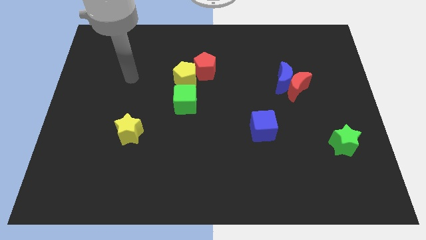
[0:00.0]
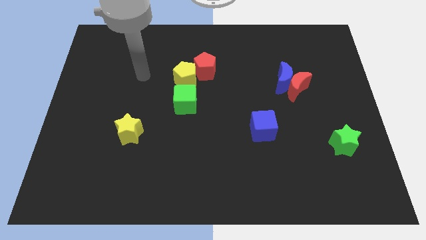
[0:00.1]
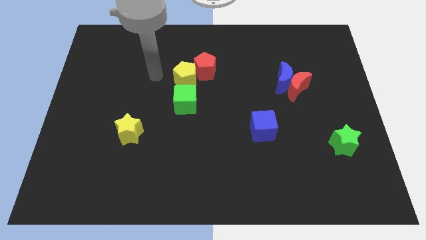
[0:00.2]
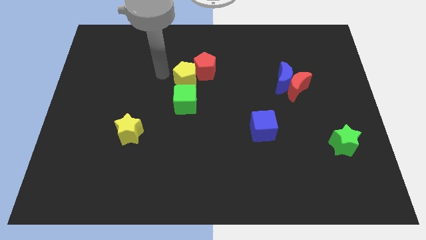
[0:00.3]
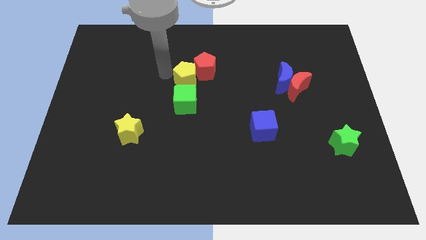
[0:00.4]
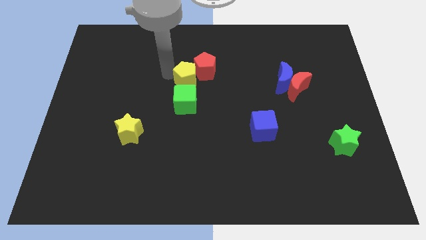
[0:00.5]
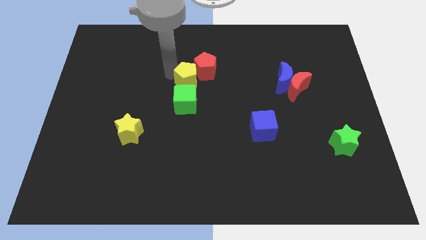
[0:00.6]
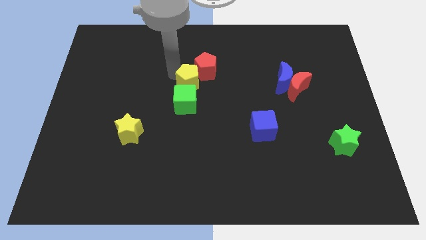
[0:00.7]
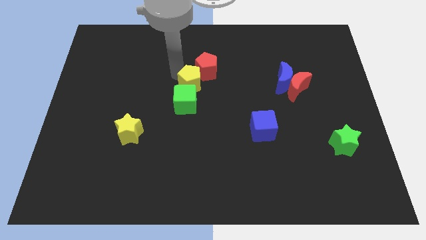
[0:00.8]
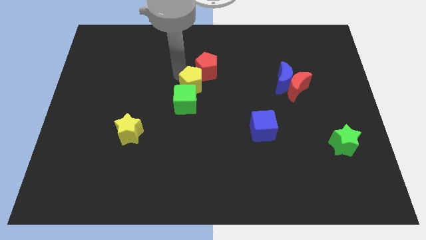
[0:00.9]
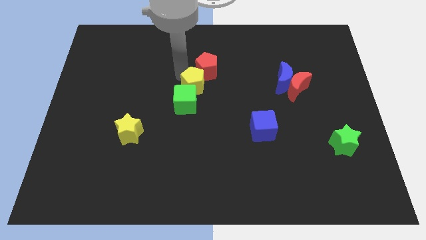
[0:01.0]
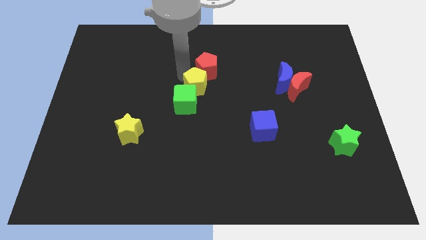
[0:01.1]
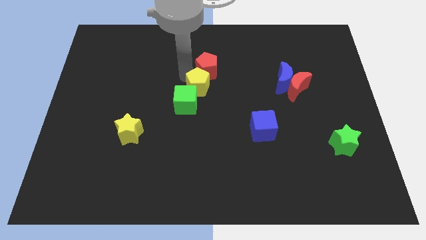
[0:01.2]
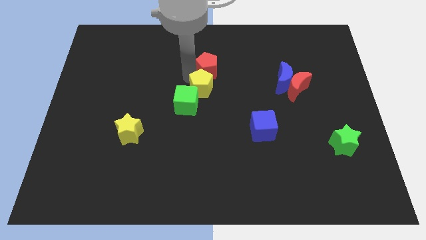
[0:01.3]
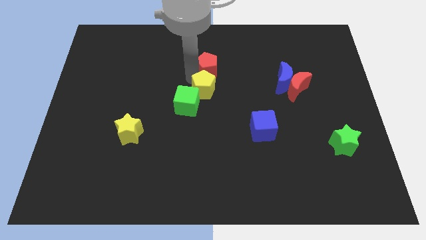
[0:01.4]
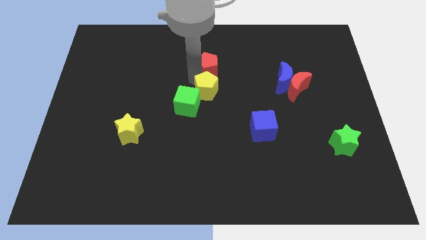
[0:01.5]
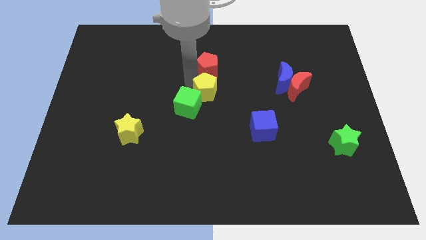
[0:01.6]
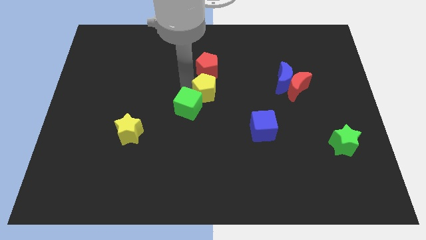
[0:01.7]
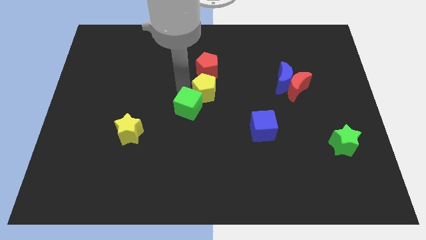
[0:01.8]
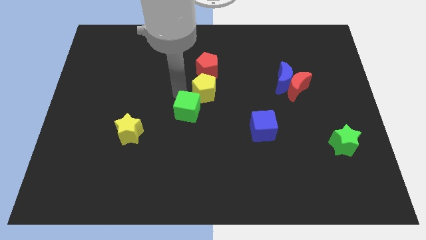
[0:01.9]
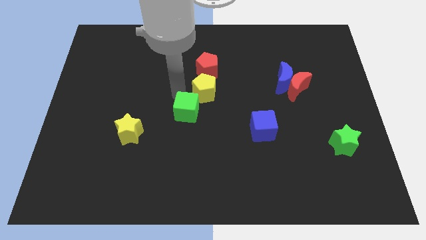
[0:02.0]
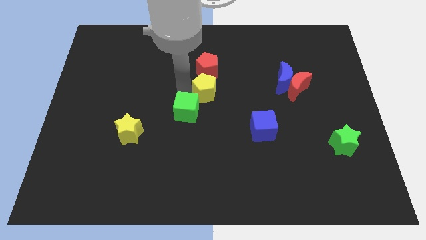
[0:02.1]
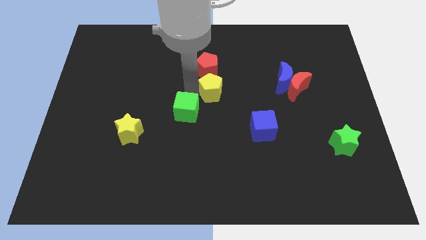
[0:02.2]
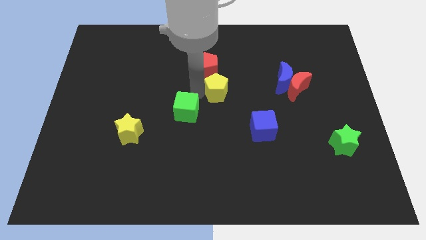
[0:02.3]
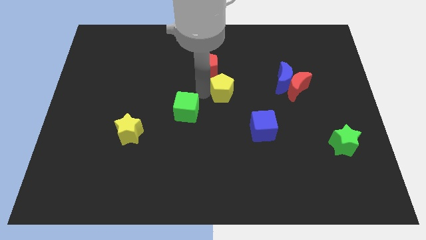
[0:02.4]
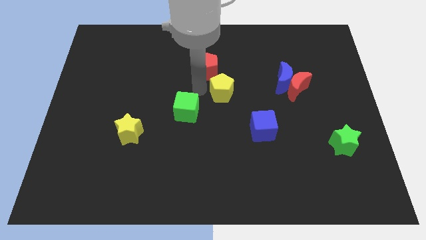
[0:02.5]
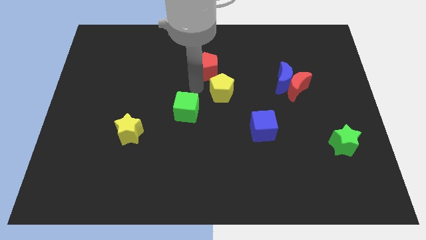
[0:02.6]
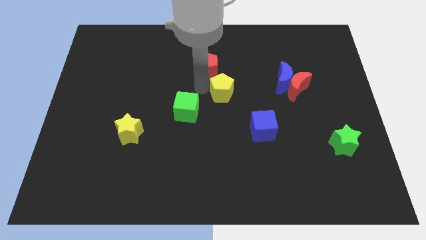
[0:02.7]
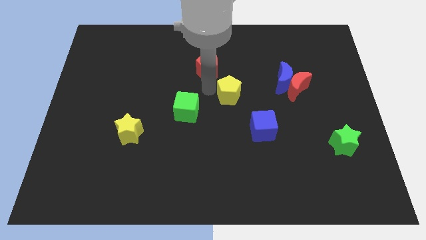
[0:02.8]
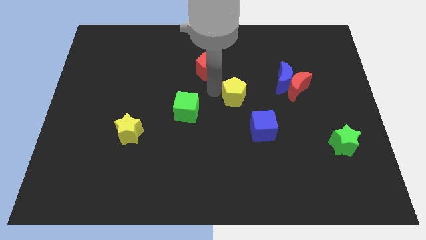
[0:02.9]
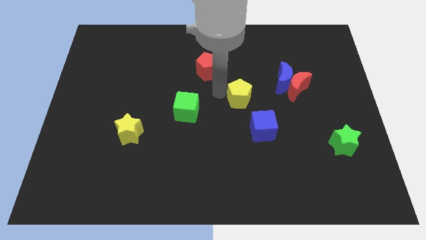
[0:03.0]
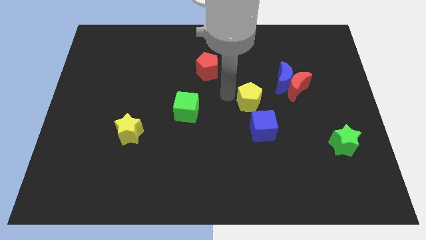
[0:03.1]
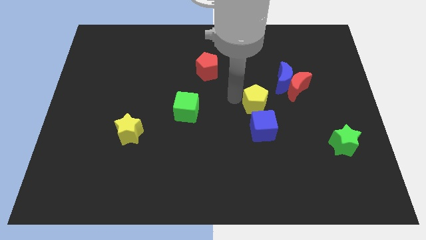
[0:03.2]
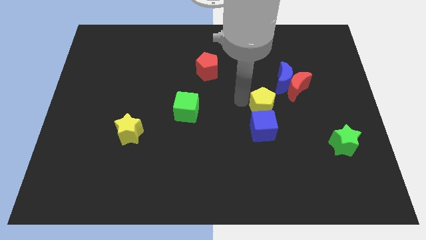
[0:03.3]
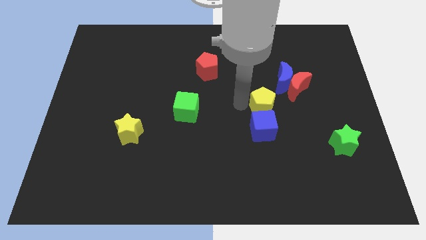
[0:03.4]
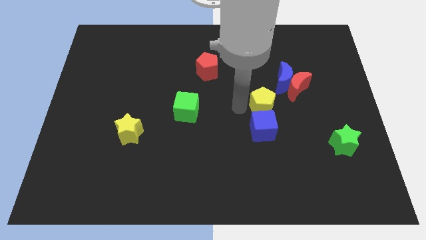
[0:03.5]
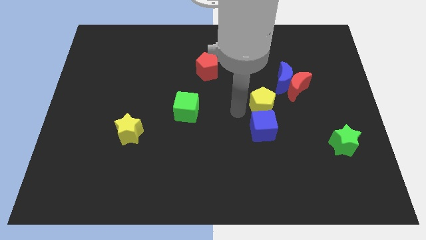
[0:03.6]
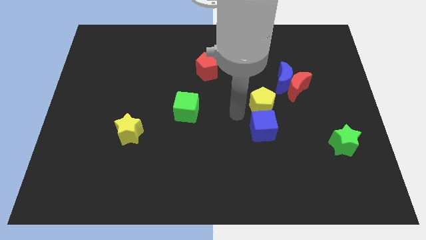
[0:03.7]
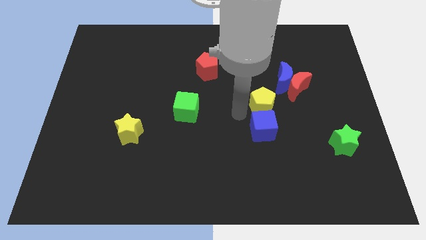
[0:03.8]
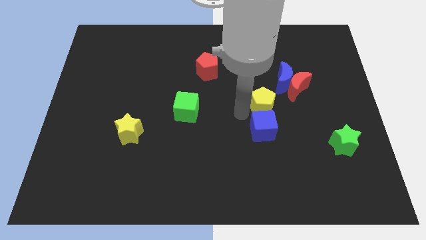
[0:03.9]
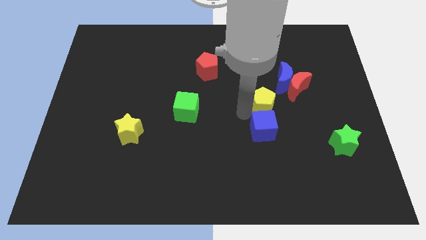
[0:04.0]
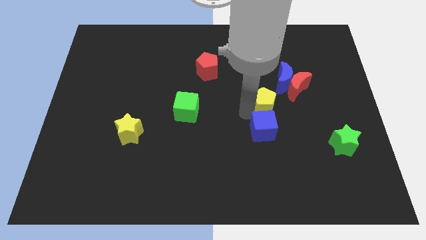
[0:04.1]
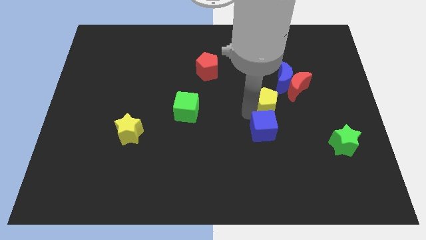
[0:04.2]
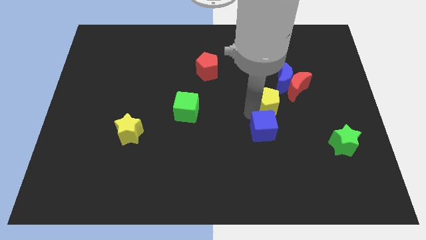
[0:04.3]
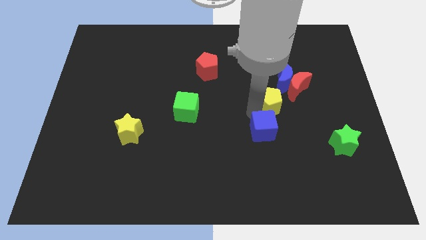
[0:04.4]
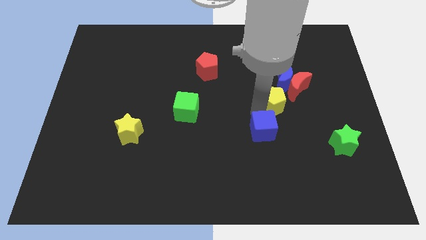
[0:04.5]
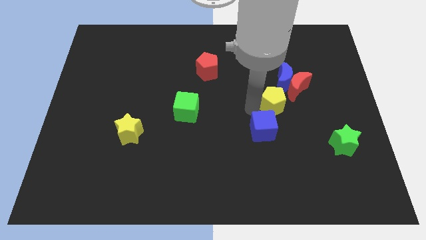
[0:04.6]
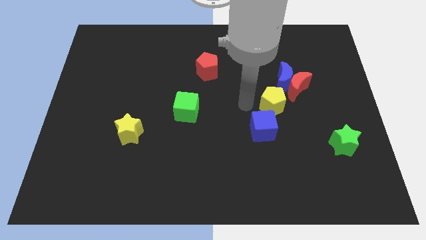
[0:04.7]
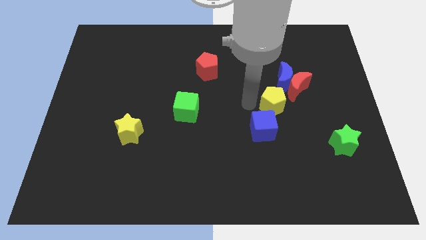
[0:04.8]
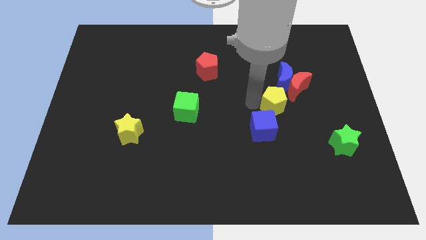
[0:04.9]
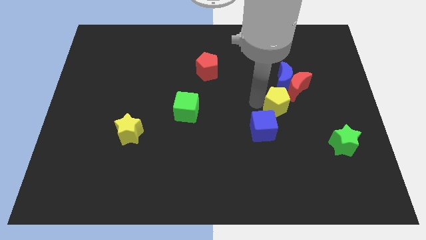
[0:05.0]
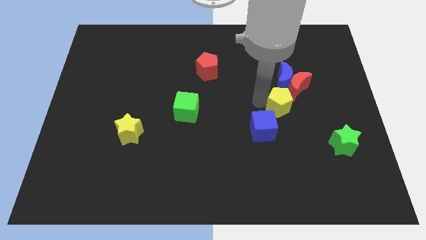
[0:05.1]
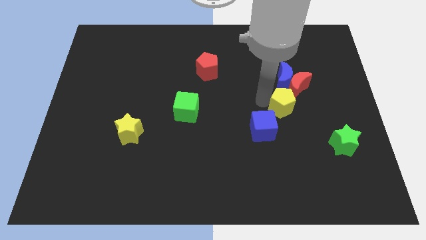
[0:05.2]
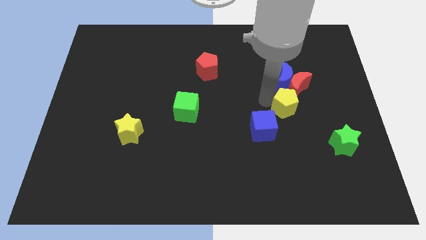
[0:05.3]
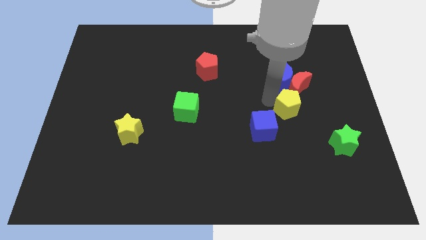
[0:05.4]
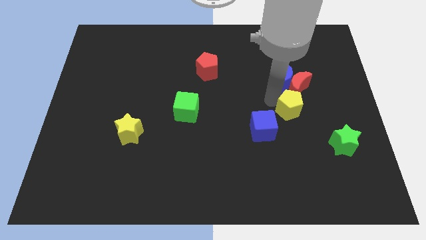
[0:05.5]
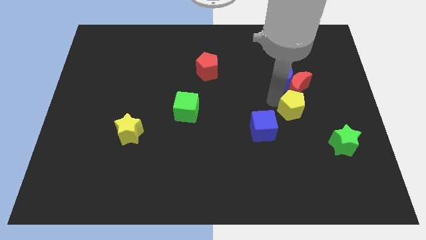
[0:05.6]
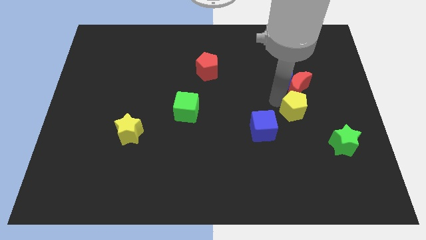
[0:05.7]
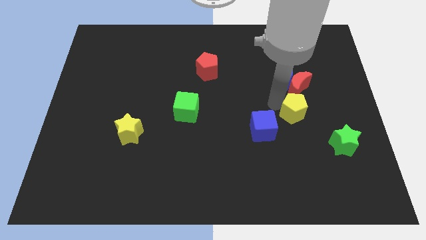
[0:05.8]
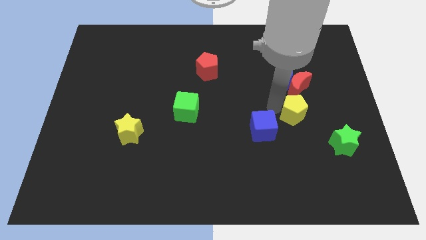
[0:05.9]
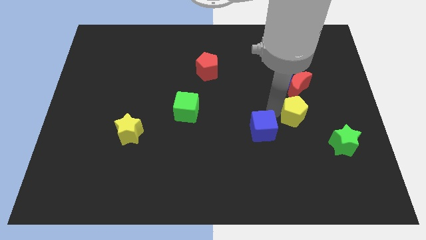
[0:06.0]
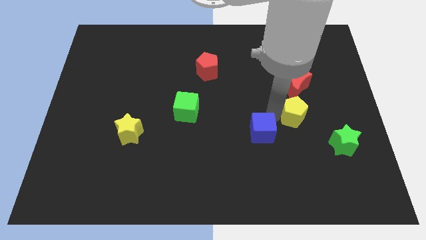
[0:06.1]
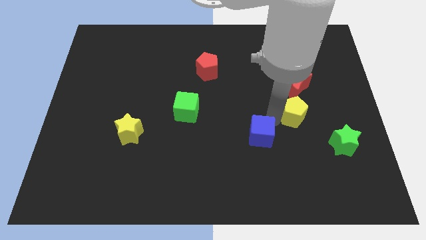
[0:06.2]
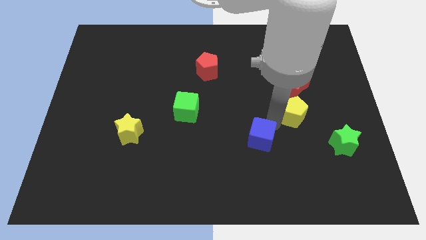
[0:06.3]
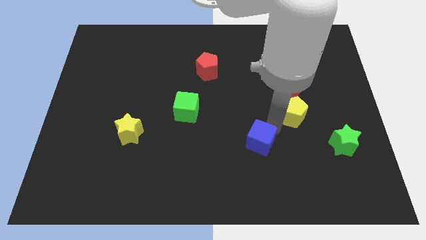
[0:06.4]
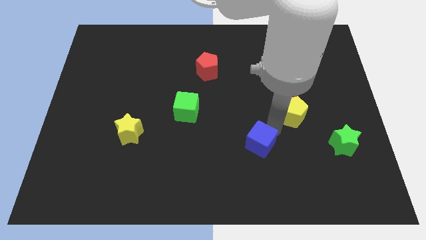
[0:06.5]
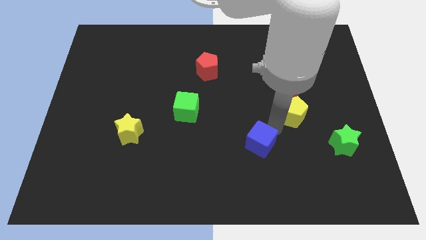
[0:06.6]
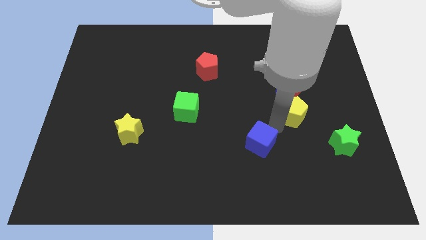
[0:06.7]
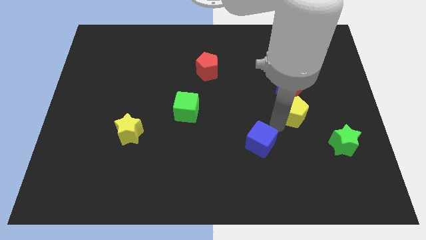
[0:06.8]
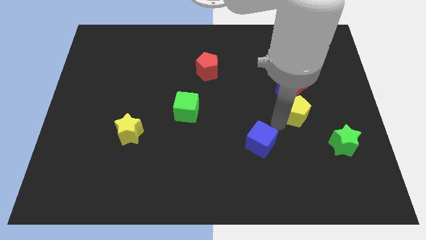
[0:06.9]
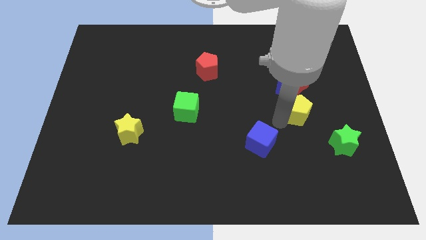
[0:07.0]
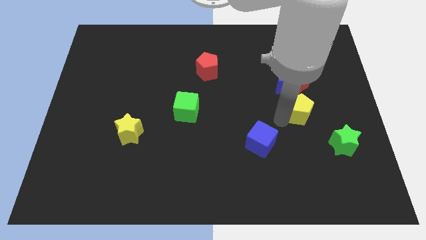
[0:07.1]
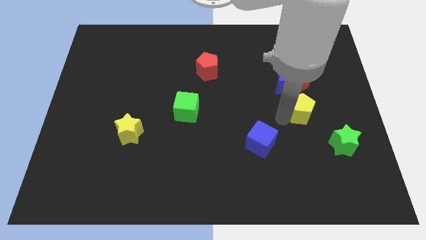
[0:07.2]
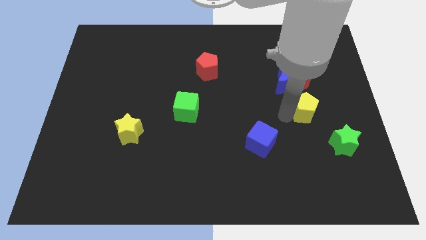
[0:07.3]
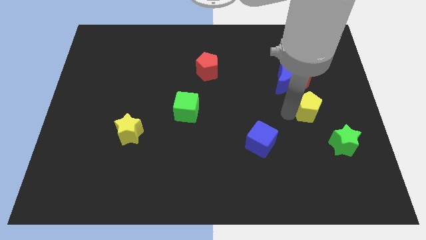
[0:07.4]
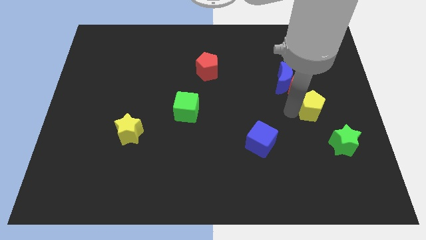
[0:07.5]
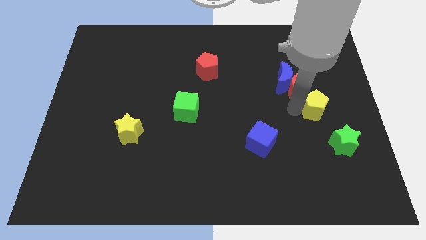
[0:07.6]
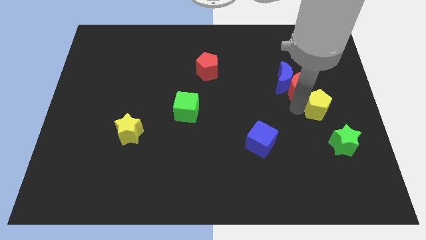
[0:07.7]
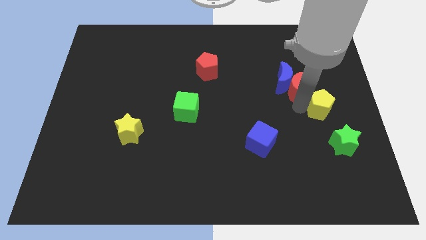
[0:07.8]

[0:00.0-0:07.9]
move the yellow pentagon to the right side
